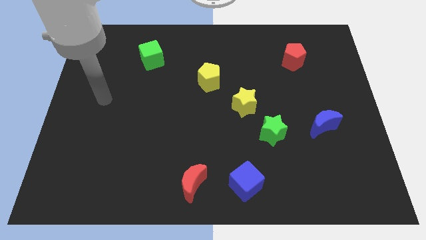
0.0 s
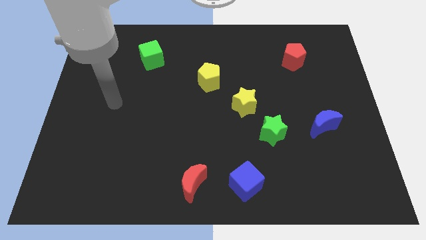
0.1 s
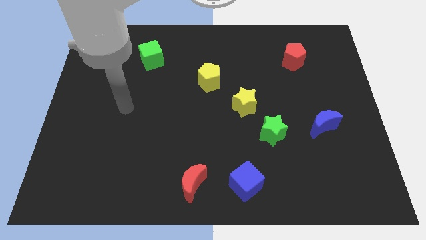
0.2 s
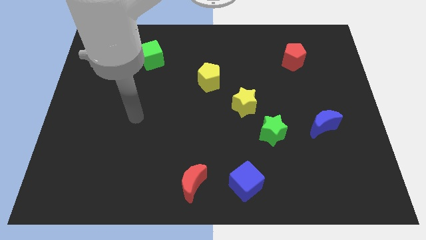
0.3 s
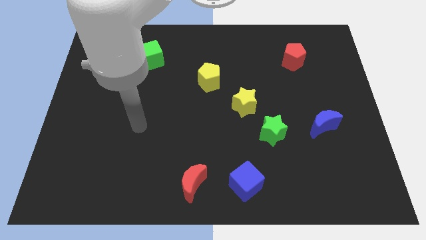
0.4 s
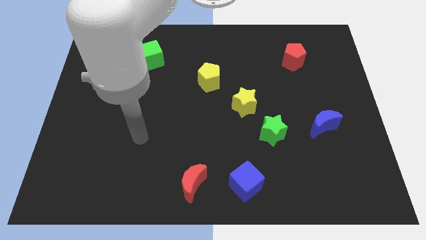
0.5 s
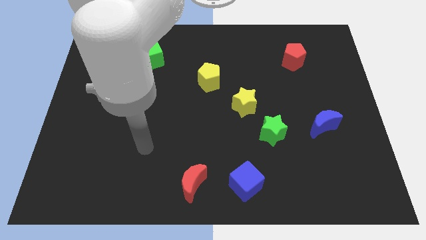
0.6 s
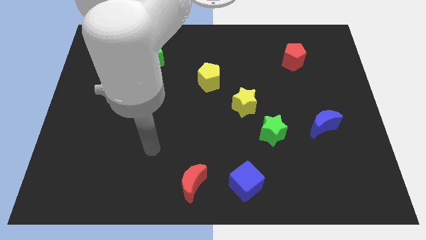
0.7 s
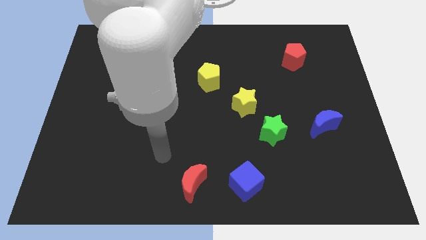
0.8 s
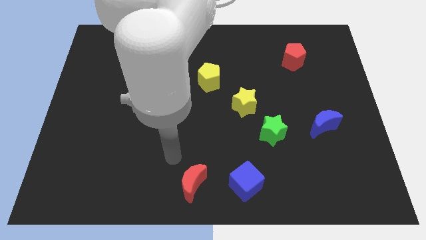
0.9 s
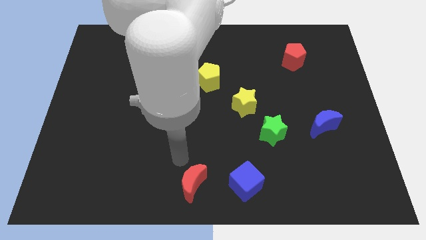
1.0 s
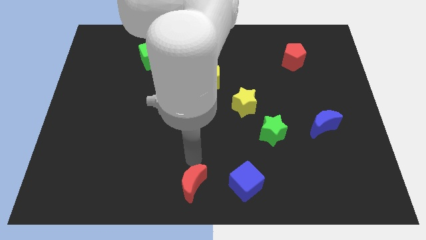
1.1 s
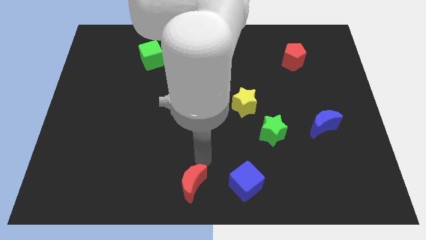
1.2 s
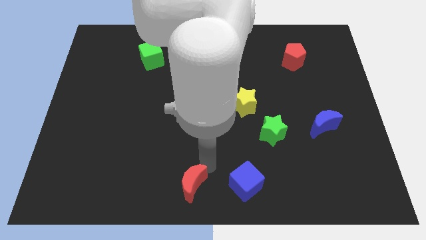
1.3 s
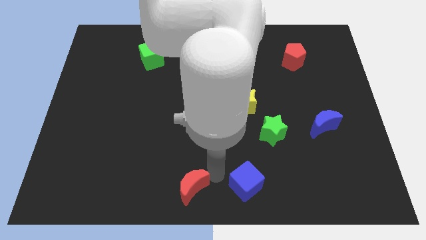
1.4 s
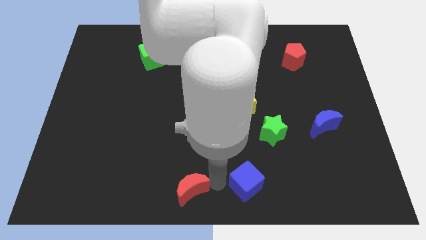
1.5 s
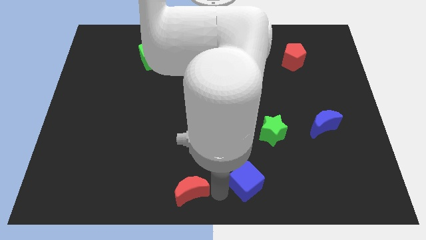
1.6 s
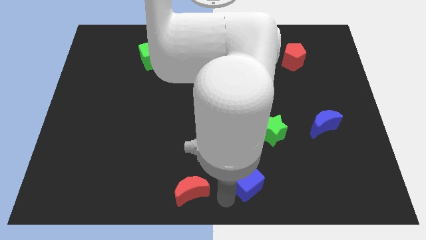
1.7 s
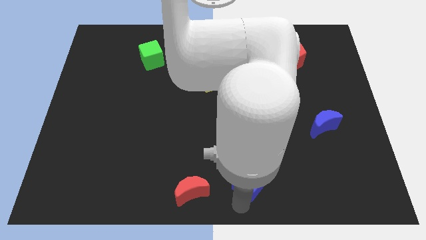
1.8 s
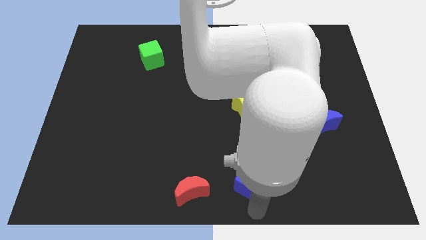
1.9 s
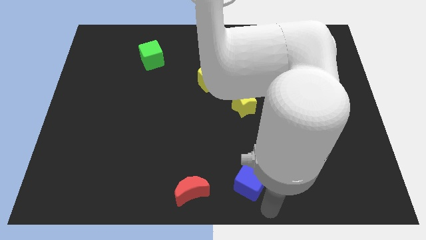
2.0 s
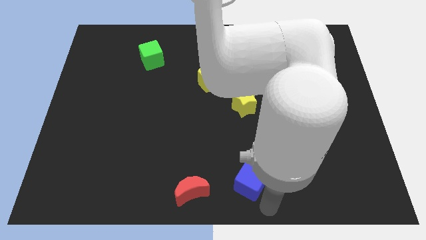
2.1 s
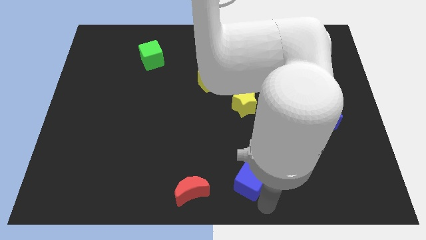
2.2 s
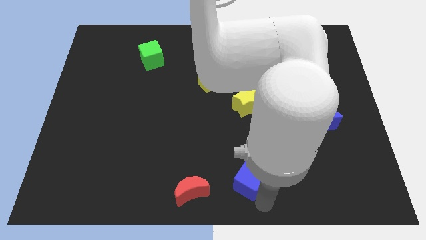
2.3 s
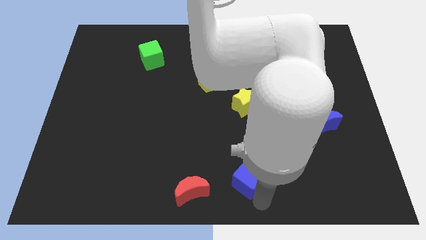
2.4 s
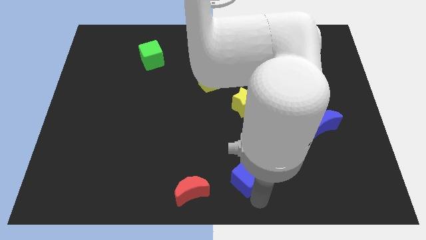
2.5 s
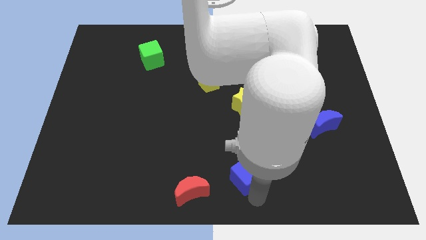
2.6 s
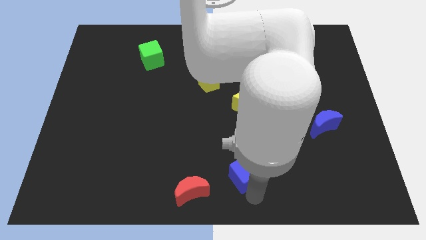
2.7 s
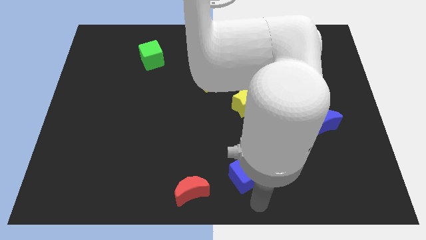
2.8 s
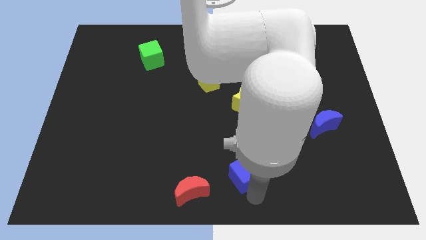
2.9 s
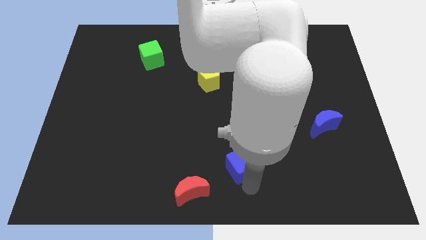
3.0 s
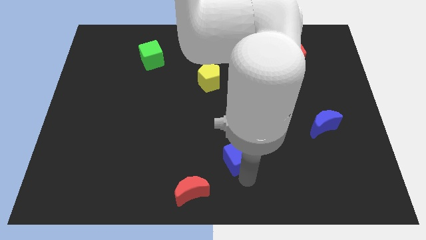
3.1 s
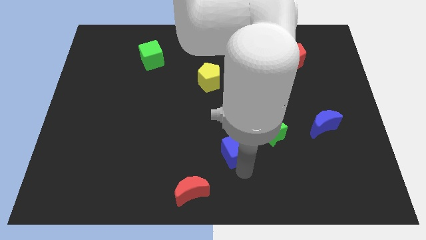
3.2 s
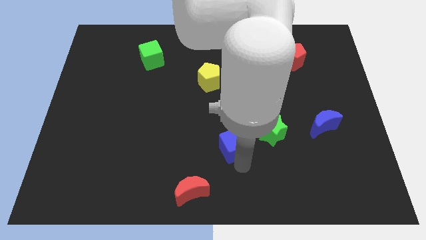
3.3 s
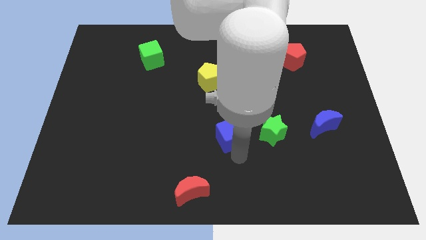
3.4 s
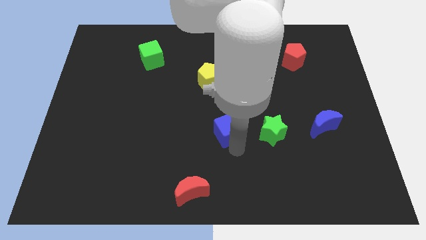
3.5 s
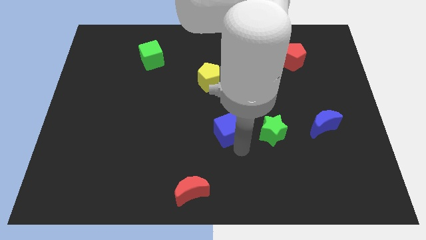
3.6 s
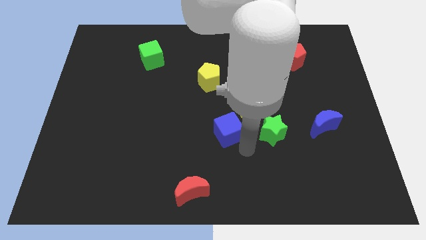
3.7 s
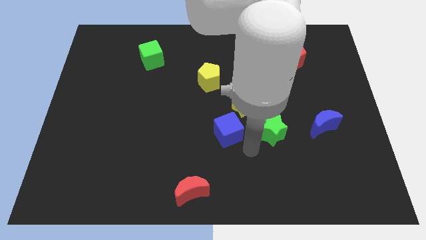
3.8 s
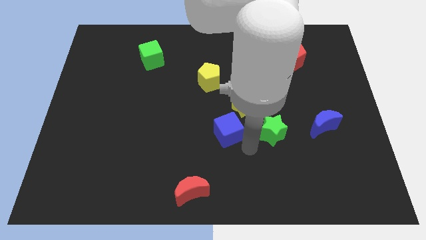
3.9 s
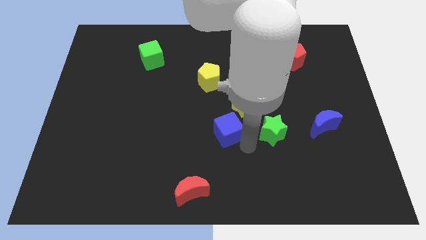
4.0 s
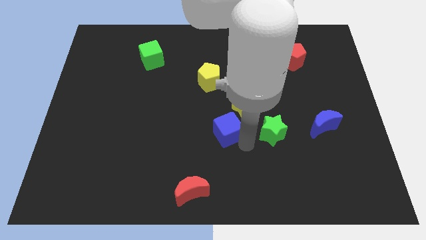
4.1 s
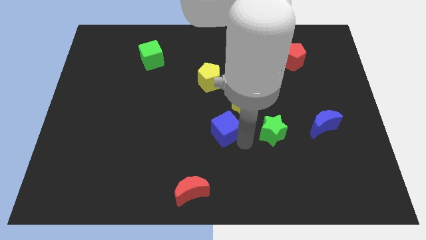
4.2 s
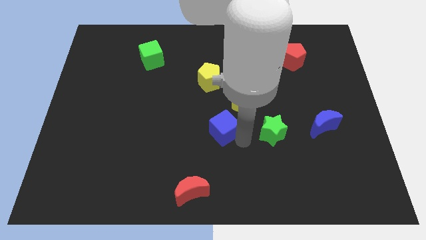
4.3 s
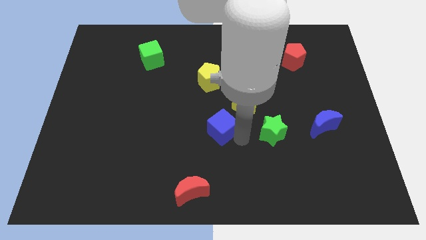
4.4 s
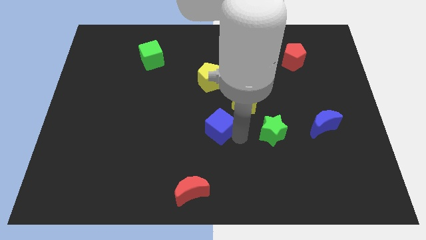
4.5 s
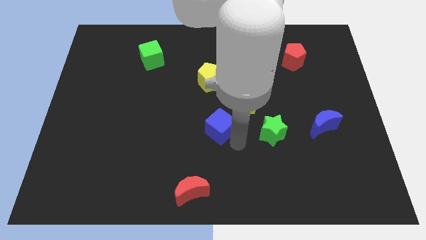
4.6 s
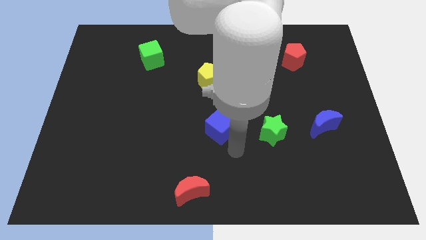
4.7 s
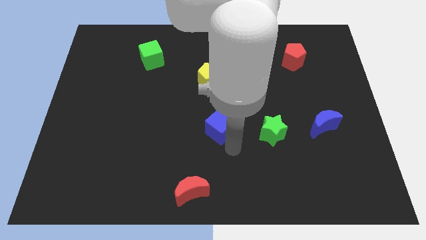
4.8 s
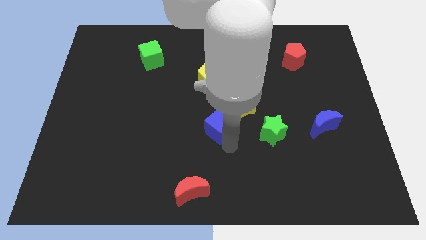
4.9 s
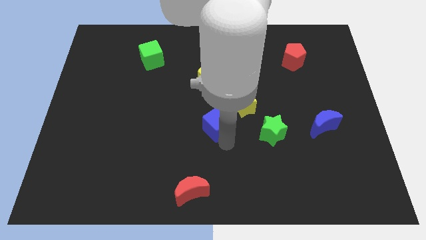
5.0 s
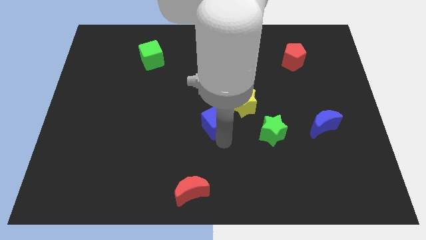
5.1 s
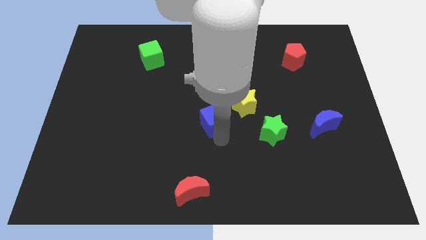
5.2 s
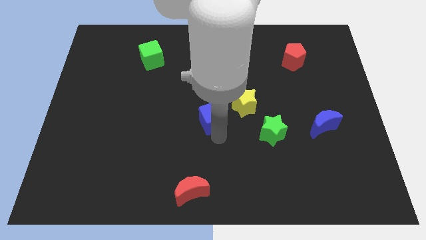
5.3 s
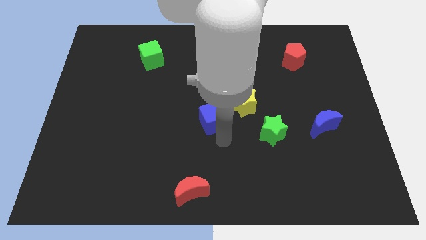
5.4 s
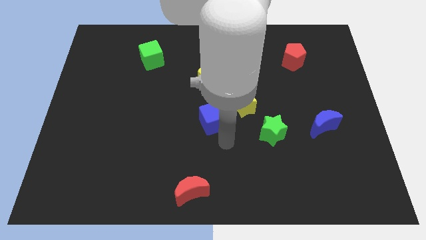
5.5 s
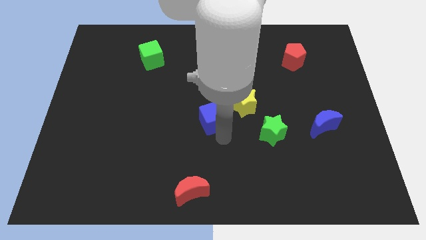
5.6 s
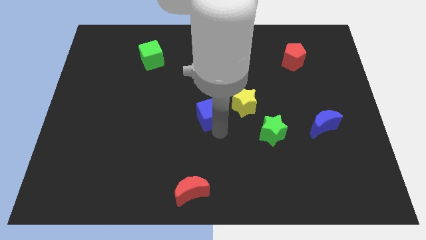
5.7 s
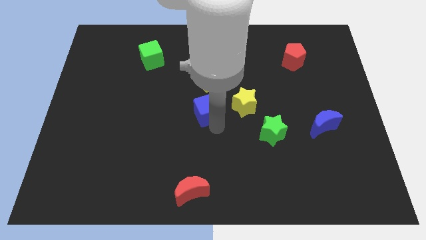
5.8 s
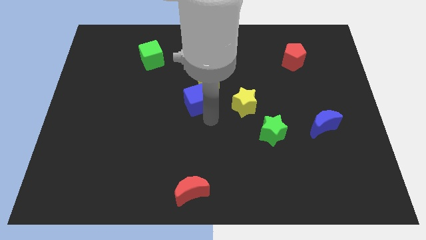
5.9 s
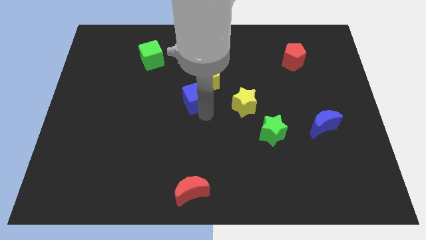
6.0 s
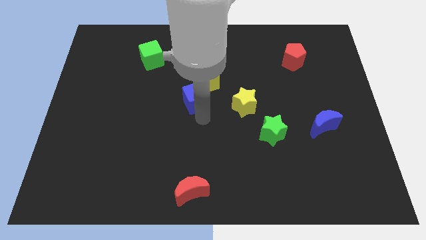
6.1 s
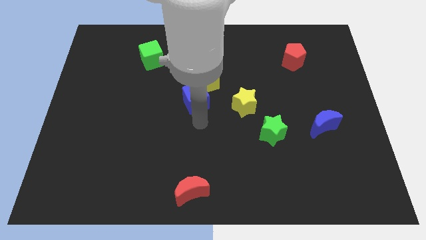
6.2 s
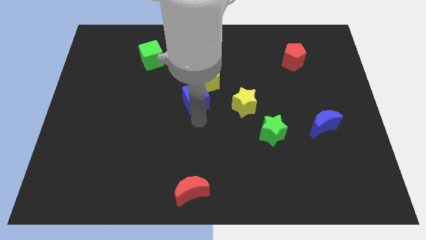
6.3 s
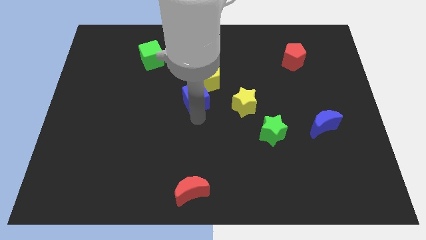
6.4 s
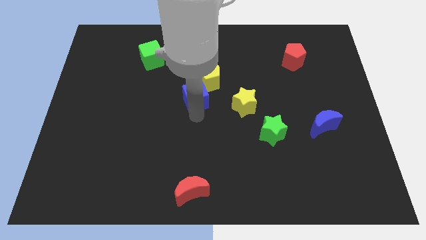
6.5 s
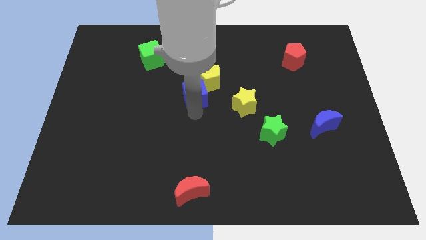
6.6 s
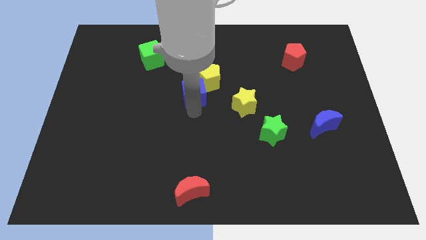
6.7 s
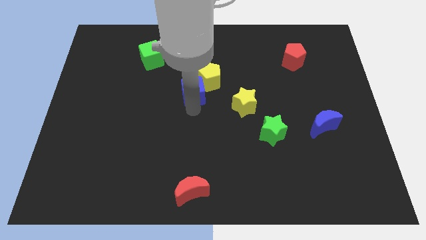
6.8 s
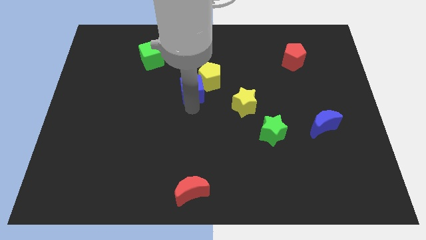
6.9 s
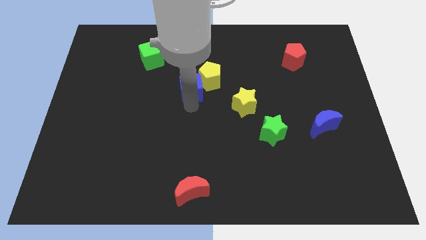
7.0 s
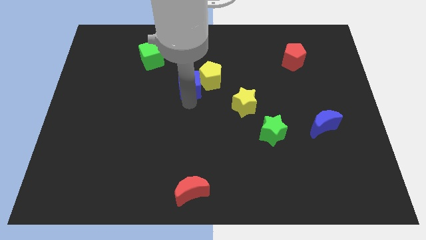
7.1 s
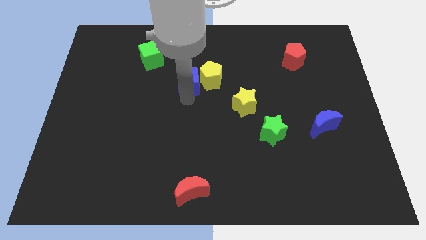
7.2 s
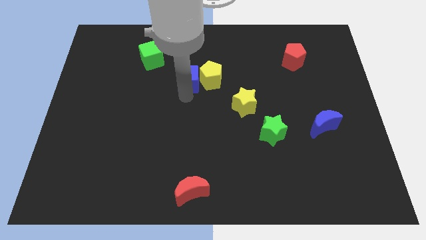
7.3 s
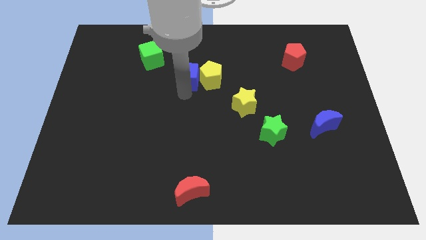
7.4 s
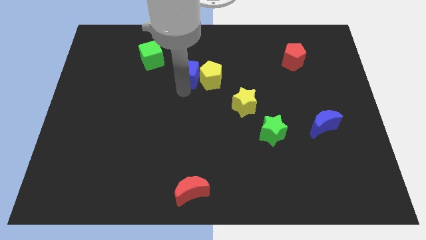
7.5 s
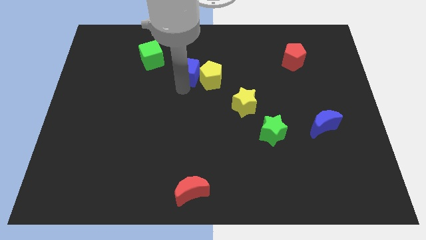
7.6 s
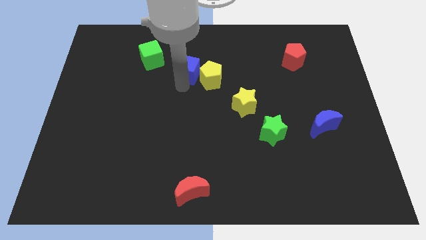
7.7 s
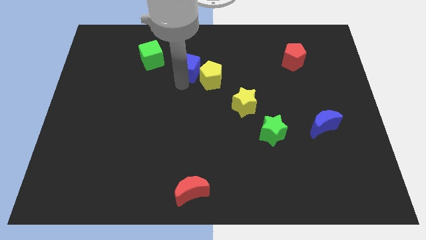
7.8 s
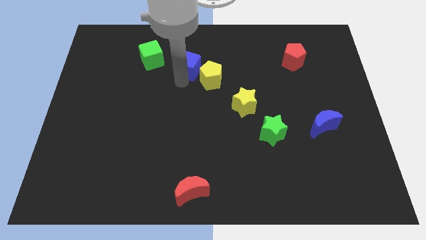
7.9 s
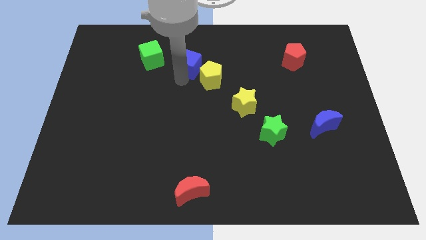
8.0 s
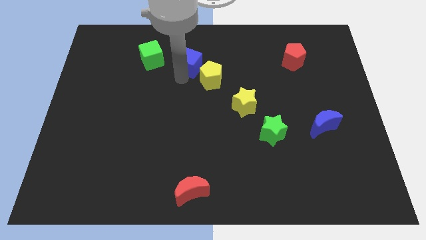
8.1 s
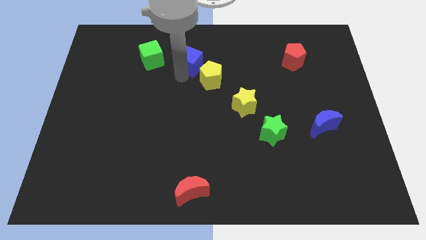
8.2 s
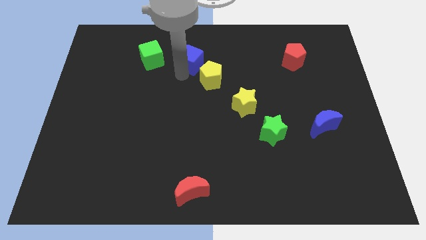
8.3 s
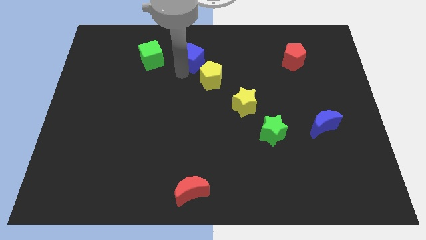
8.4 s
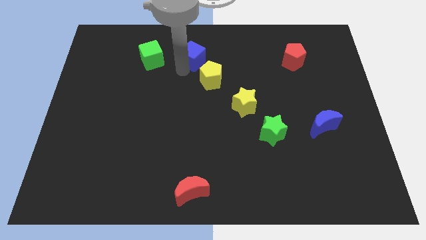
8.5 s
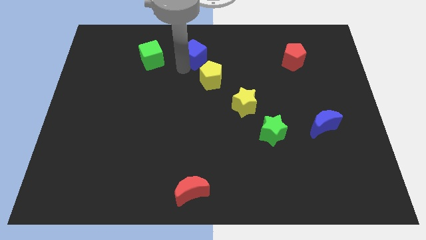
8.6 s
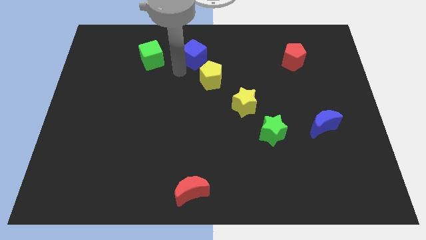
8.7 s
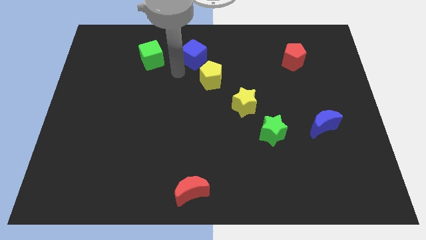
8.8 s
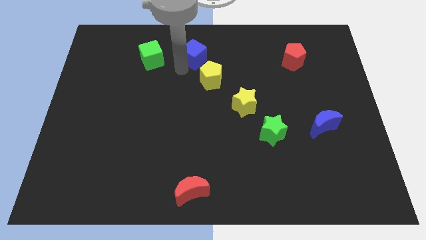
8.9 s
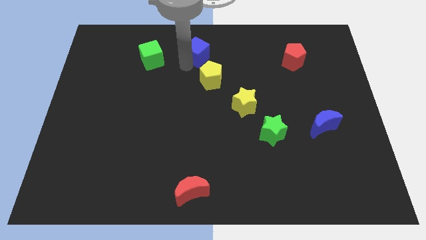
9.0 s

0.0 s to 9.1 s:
push the blue cube to the top side
